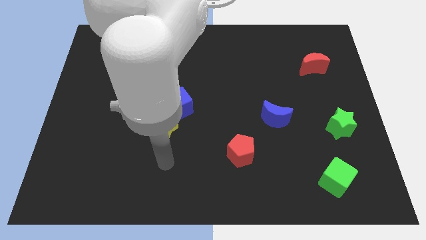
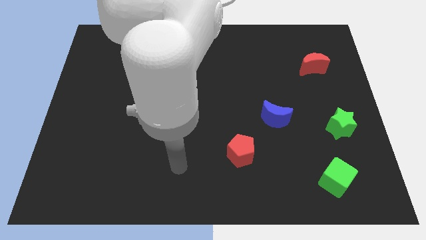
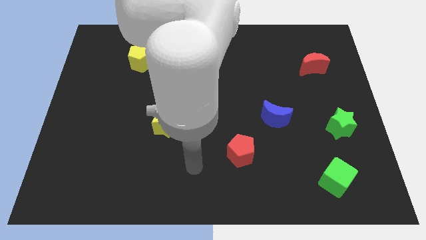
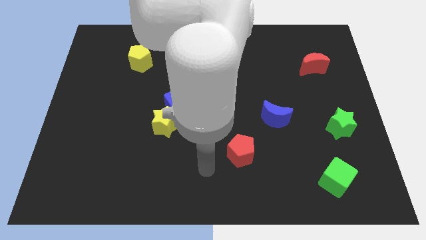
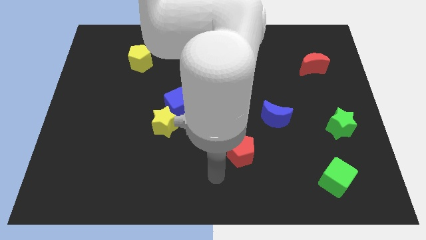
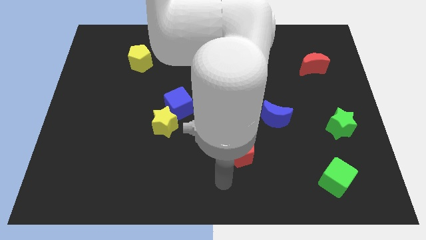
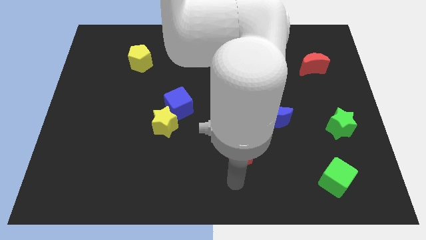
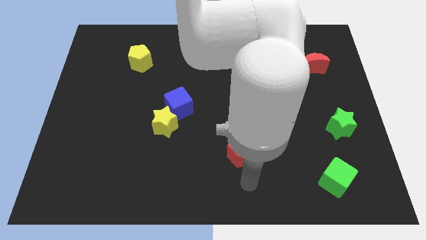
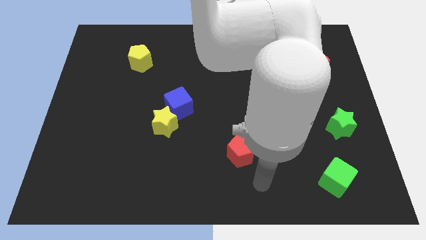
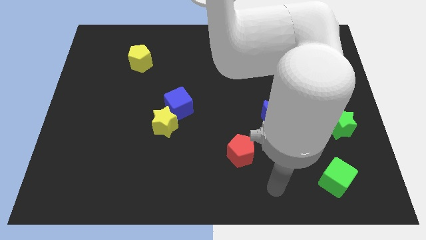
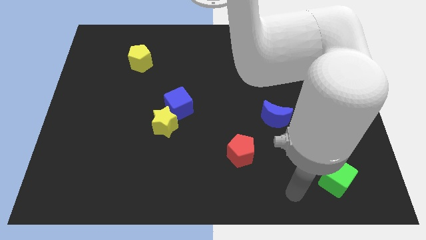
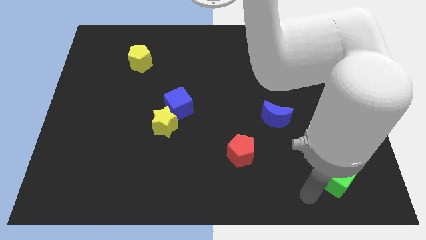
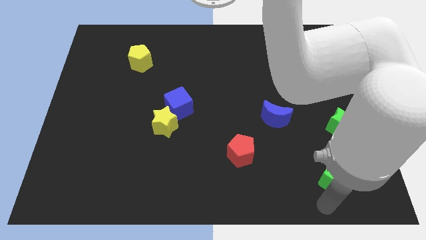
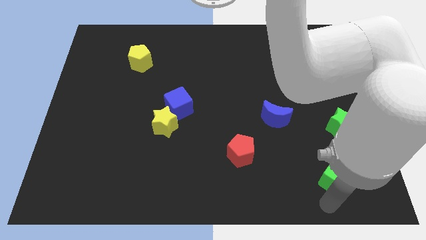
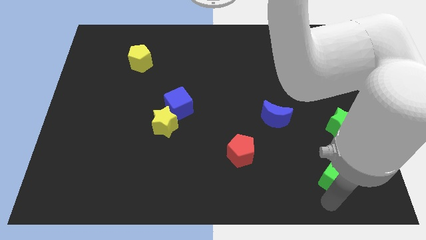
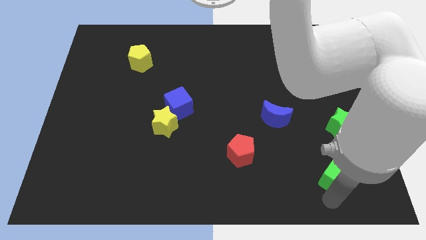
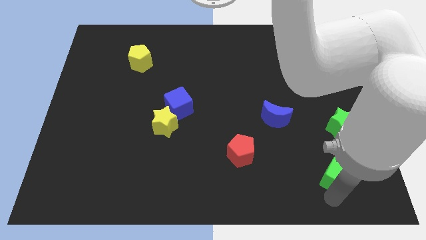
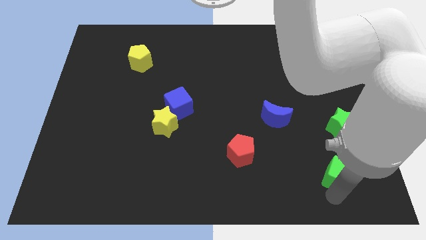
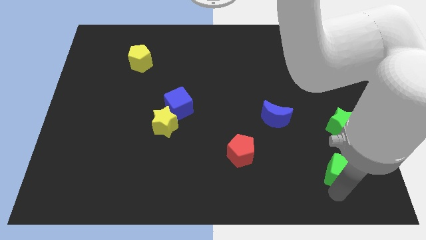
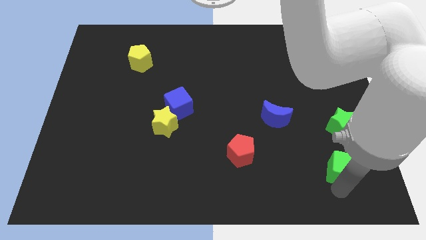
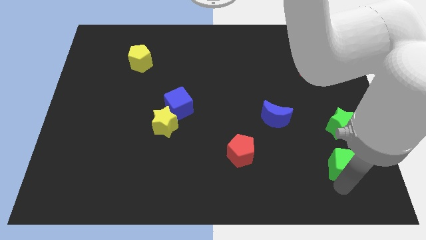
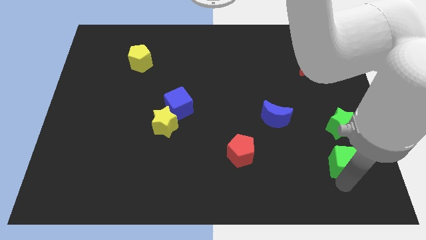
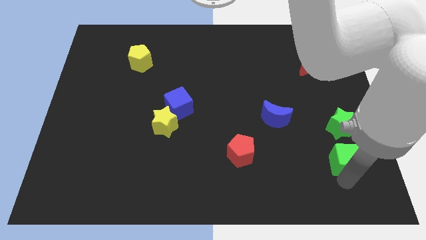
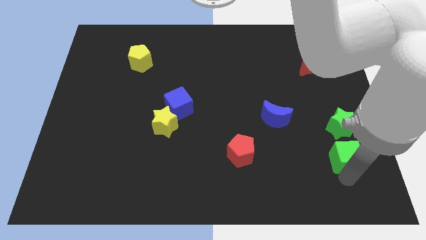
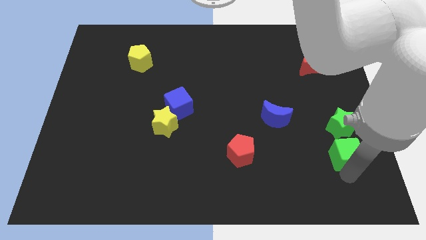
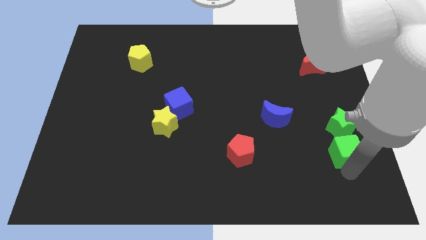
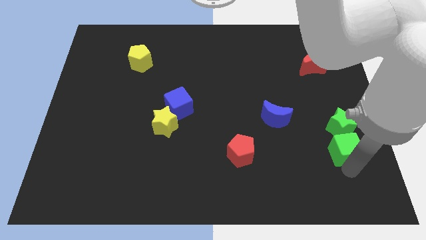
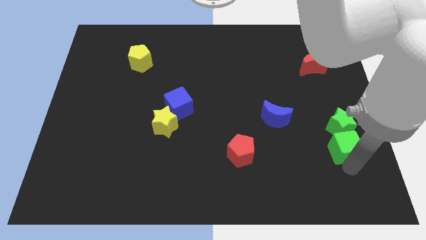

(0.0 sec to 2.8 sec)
slightly slide the green cube upwards

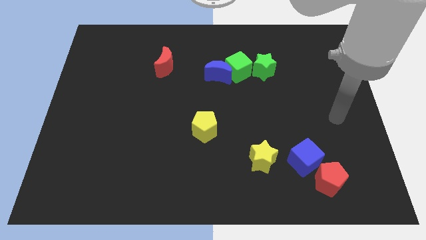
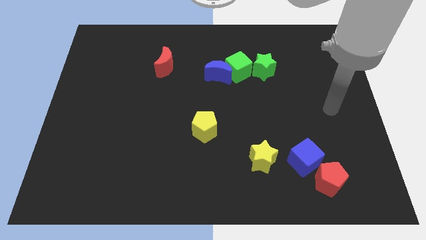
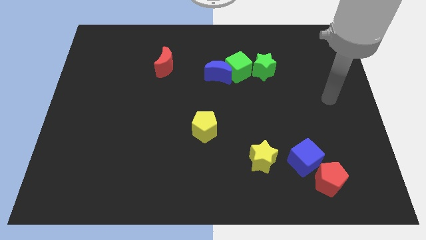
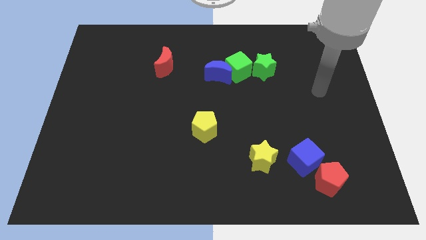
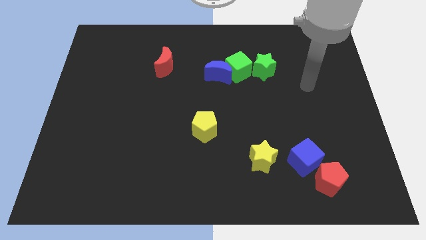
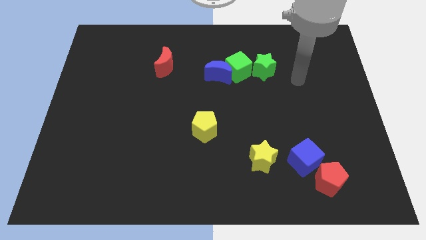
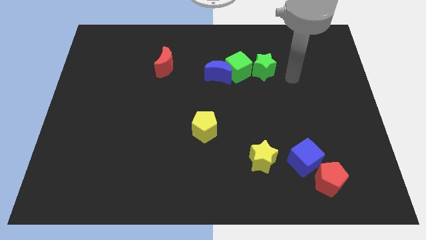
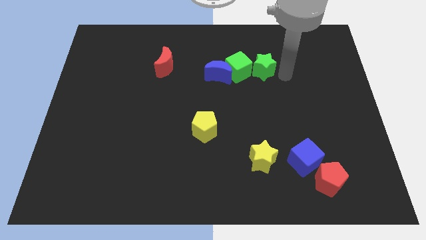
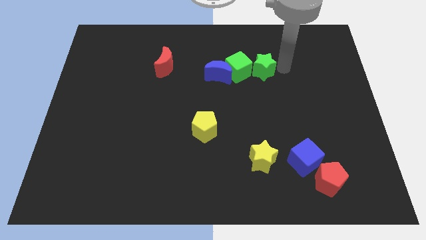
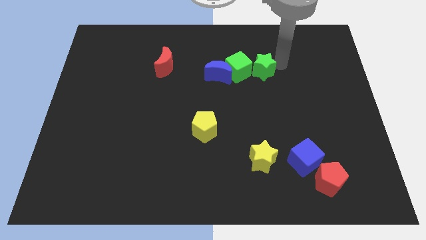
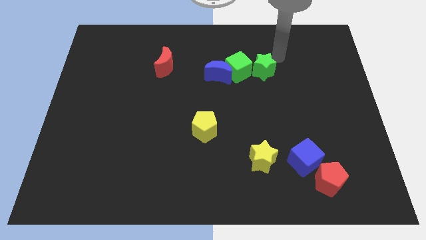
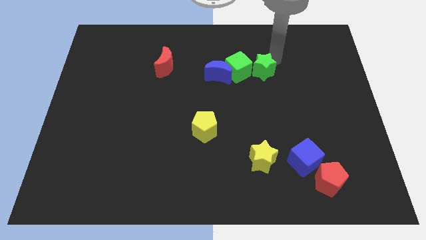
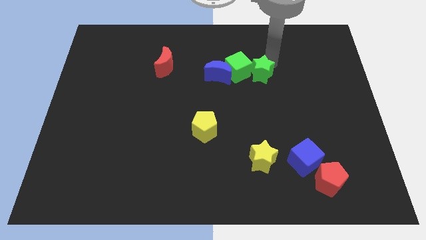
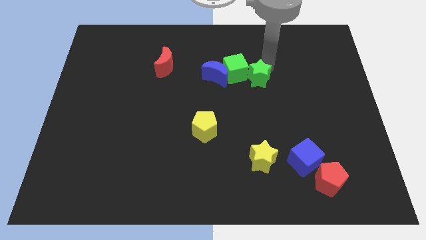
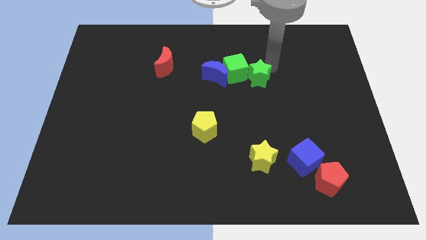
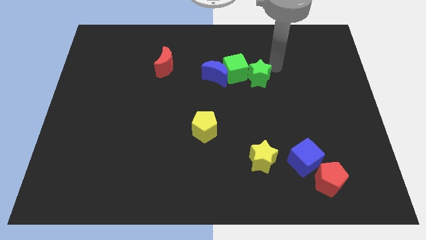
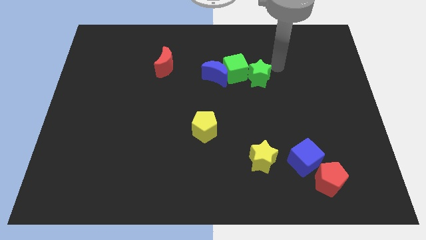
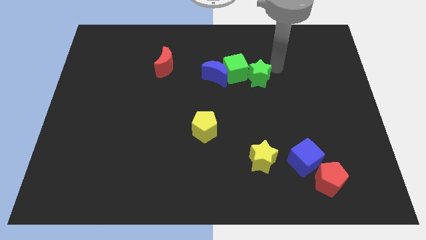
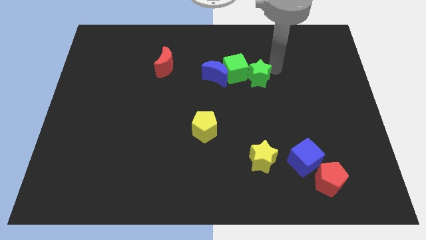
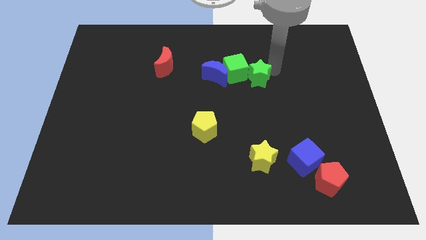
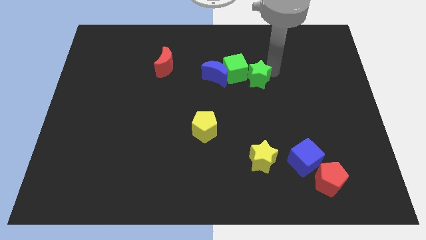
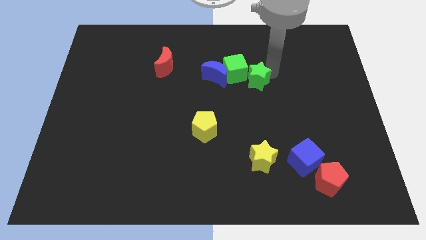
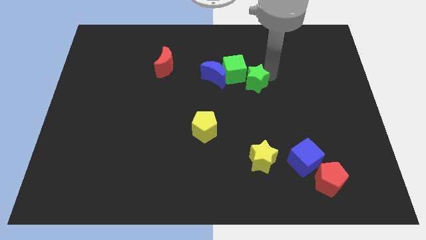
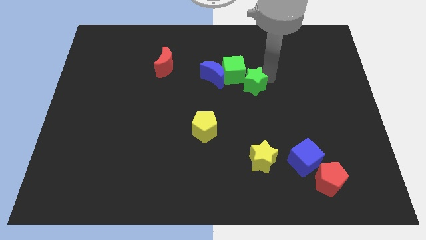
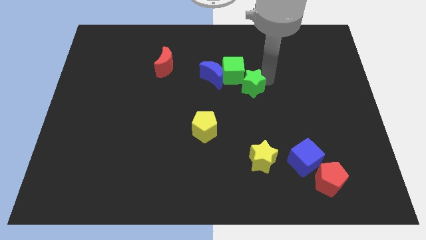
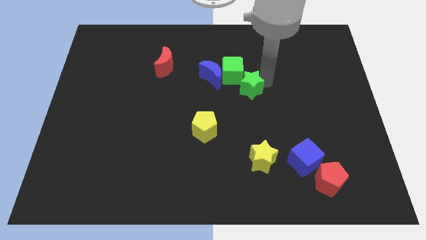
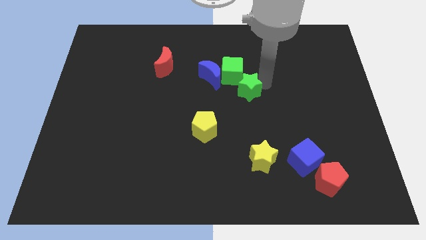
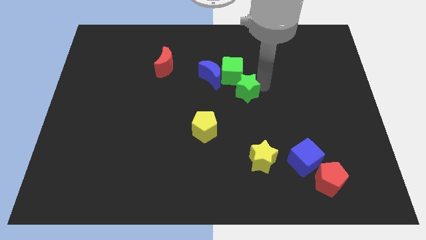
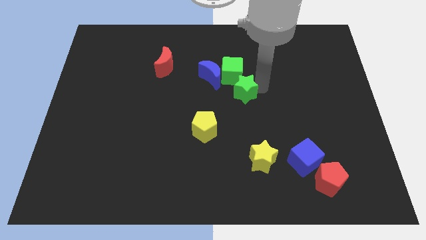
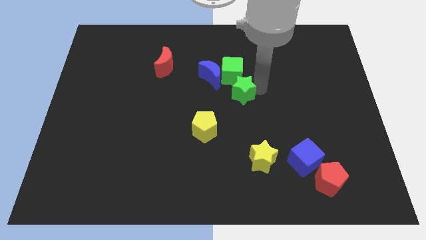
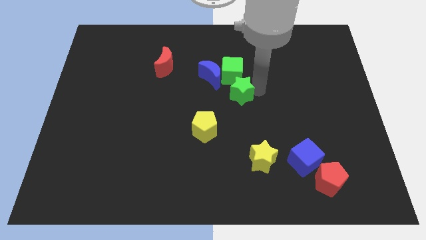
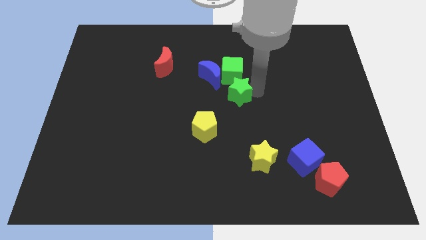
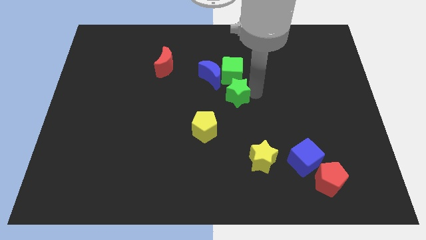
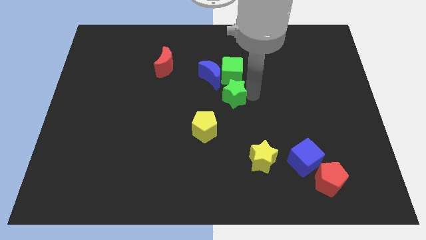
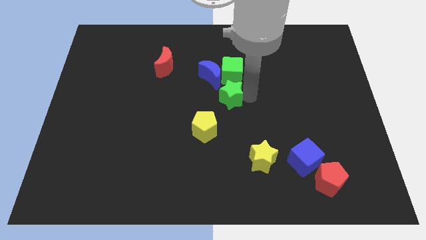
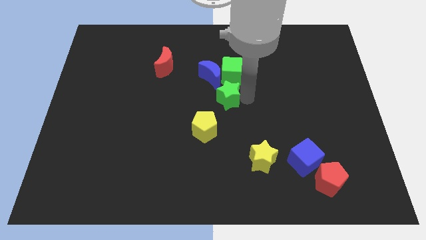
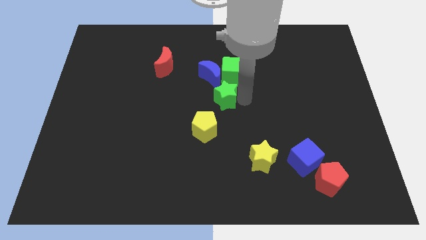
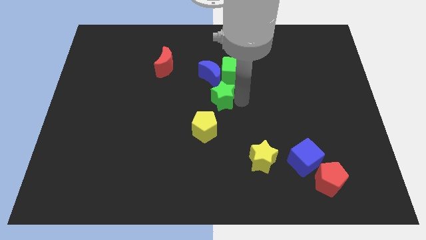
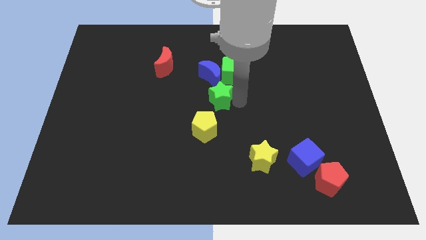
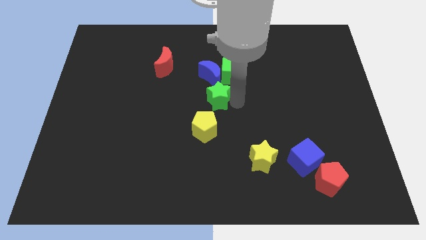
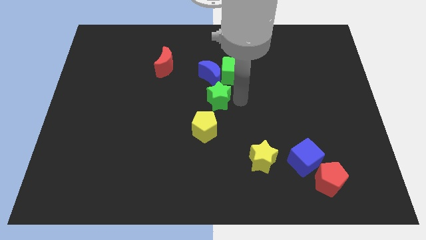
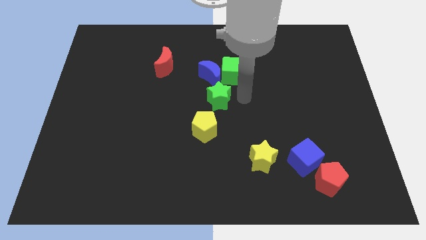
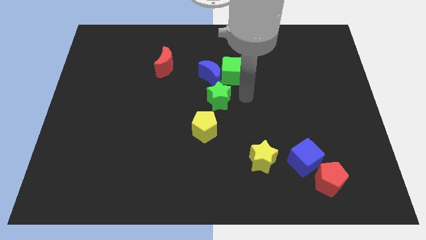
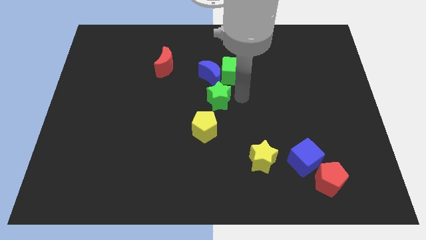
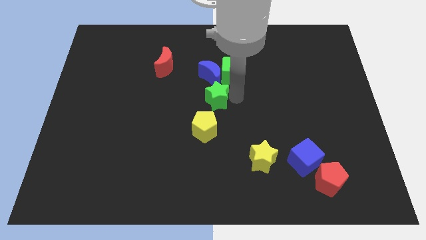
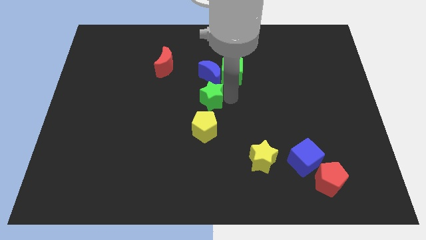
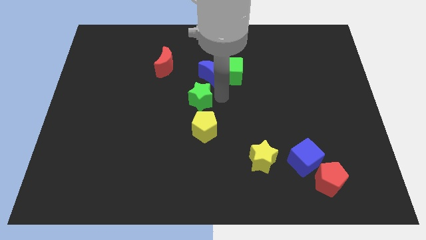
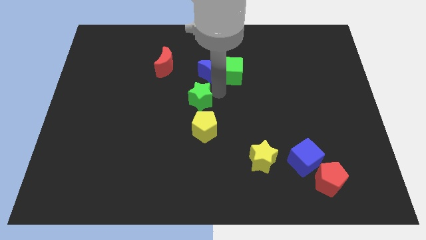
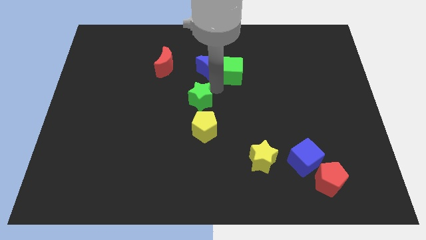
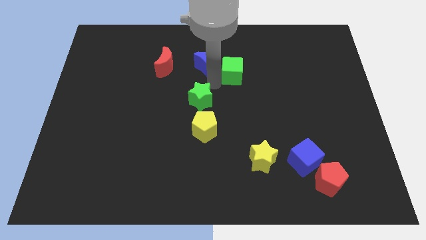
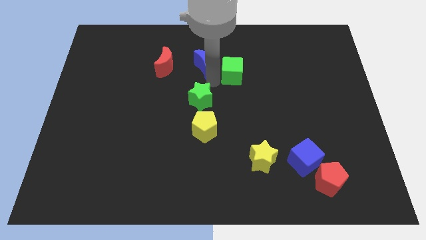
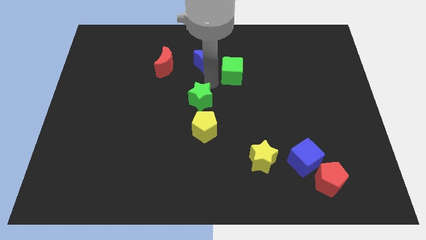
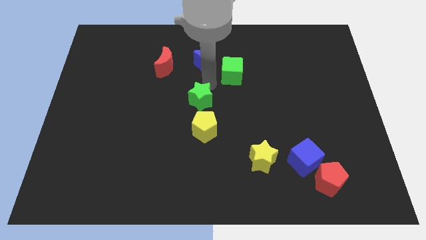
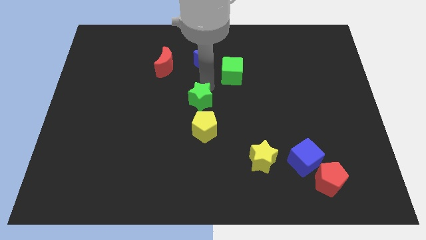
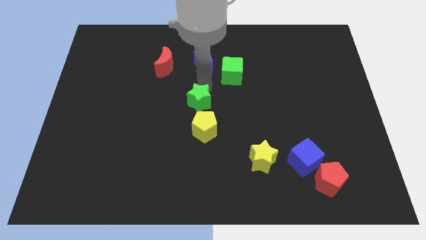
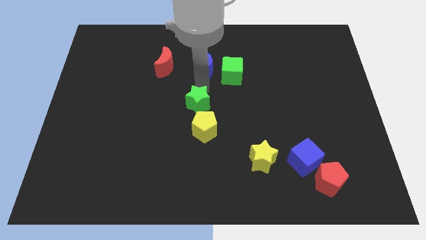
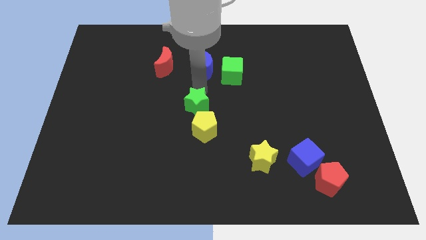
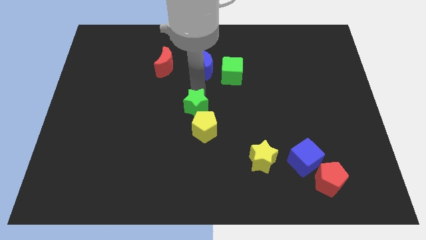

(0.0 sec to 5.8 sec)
move the green star diagonally down and to the left

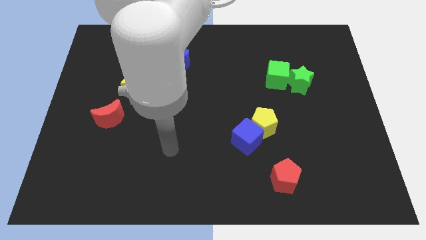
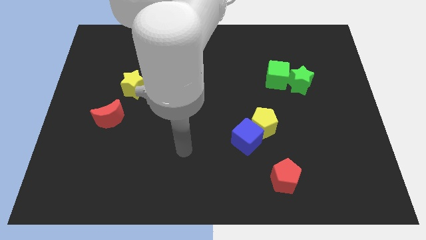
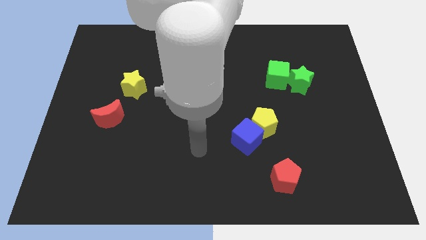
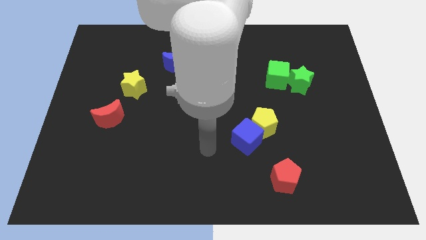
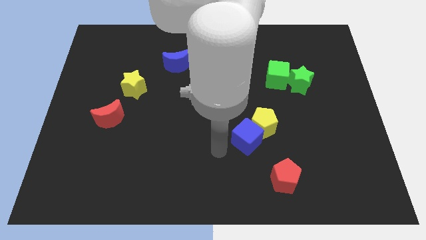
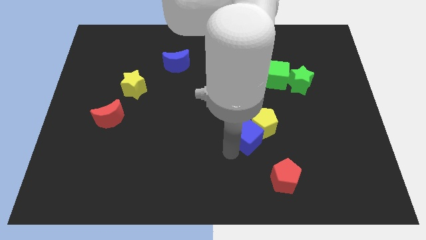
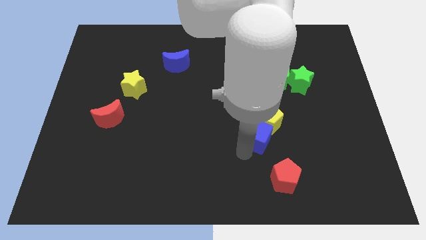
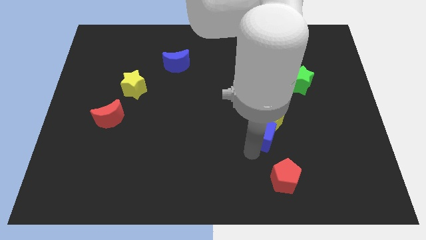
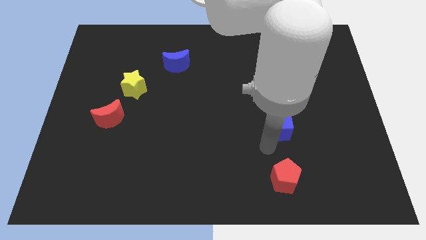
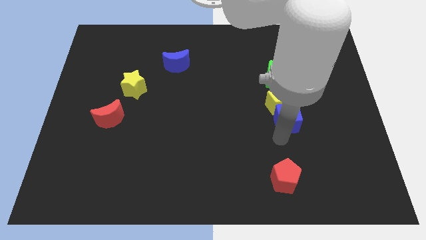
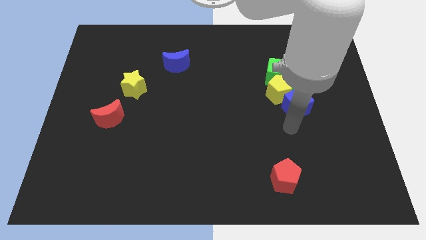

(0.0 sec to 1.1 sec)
move the yellow pentagon a little bit up
